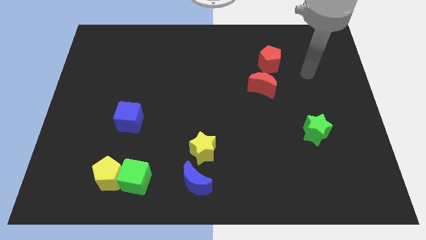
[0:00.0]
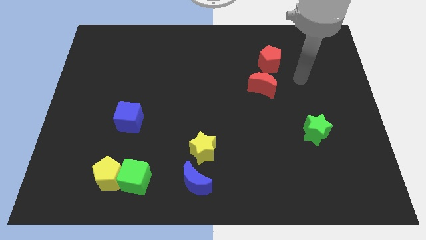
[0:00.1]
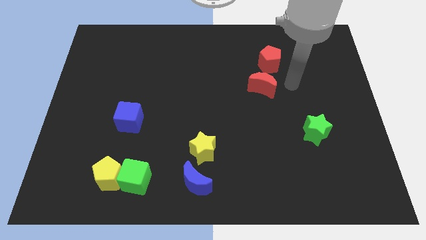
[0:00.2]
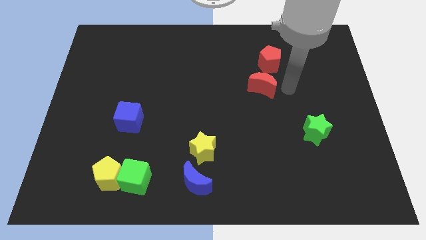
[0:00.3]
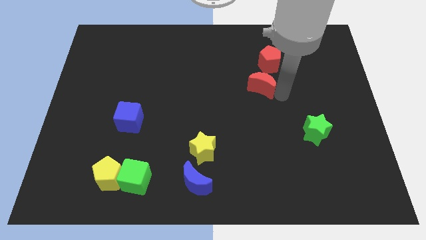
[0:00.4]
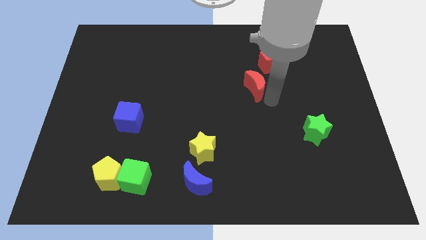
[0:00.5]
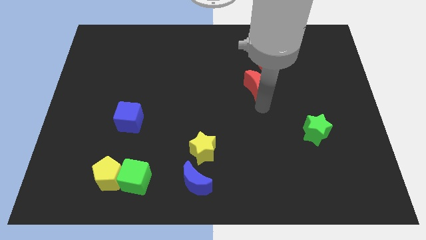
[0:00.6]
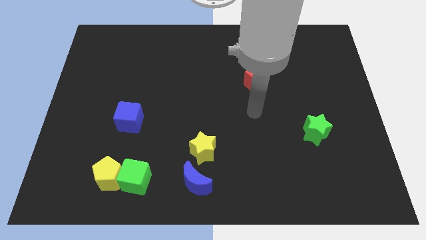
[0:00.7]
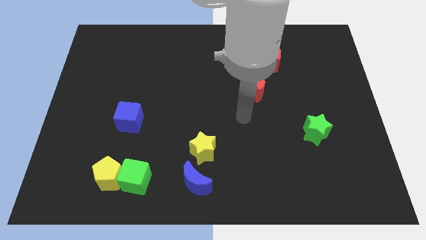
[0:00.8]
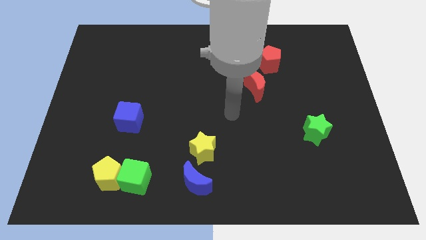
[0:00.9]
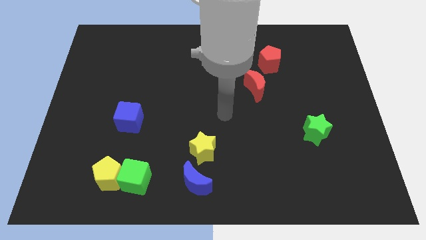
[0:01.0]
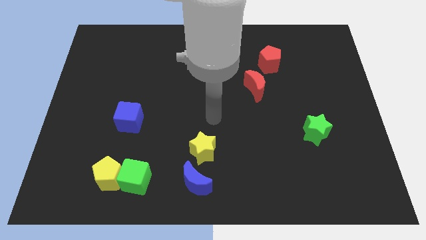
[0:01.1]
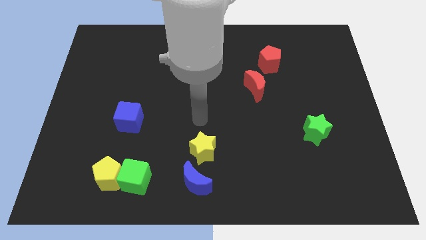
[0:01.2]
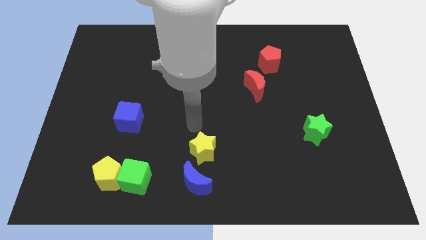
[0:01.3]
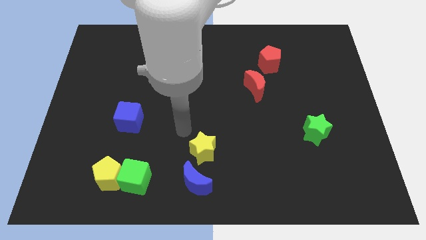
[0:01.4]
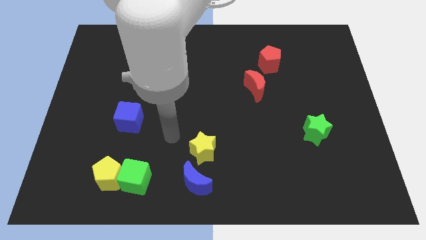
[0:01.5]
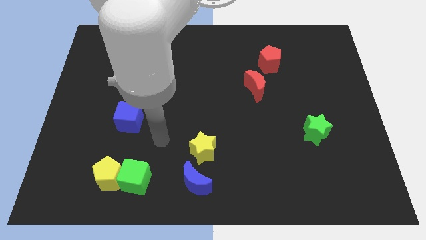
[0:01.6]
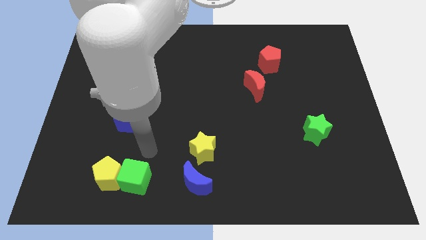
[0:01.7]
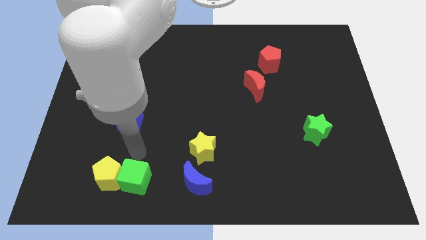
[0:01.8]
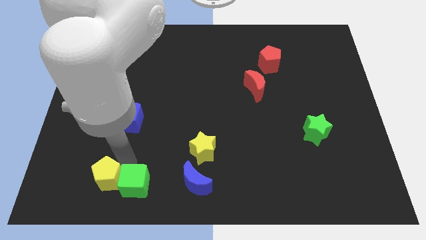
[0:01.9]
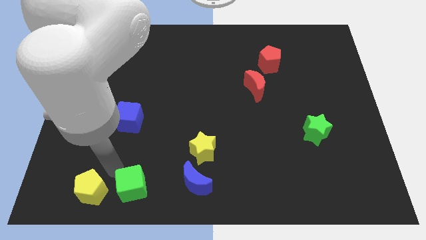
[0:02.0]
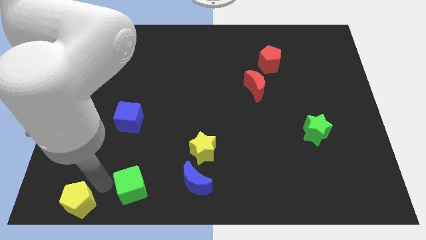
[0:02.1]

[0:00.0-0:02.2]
separate the green cube from the yellow pentagon

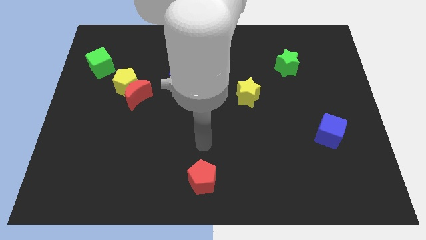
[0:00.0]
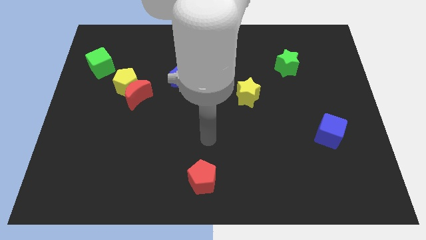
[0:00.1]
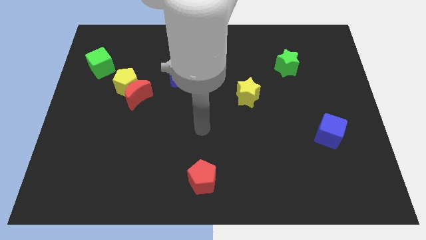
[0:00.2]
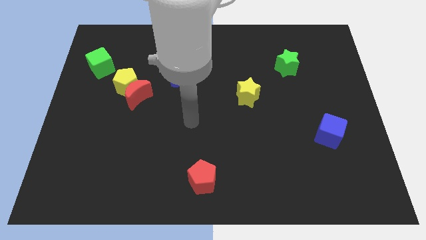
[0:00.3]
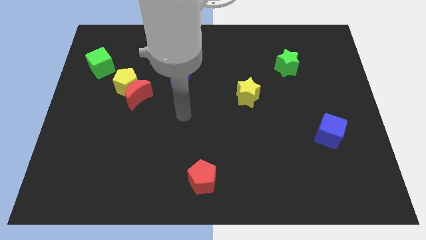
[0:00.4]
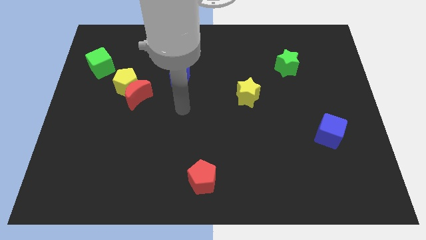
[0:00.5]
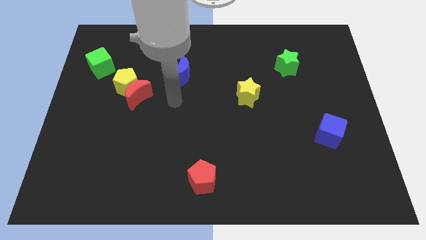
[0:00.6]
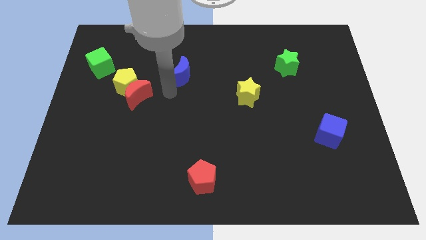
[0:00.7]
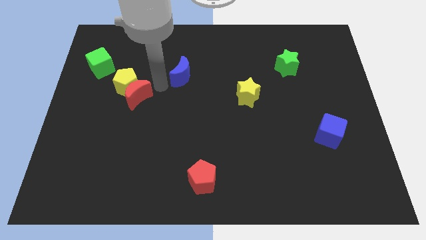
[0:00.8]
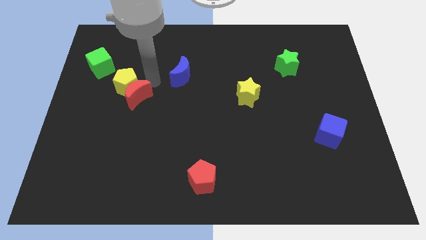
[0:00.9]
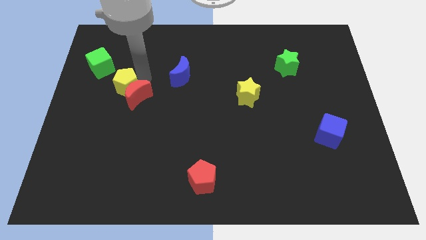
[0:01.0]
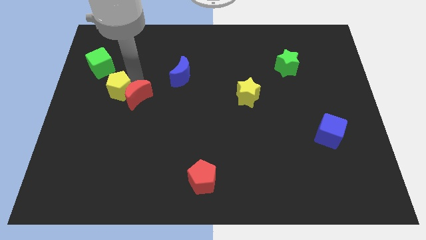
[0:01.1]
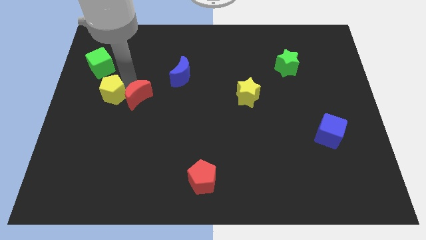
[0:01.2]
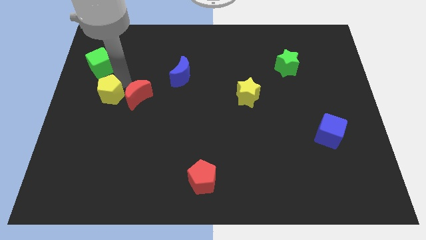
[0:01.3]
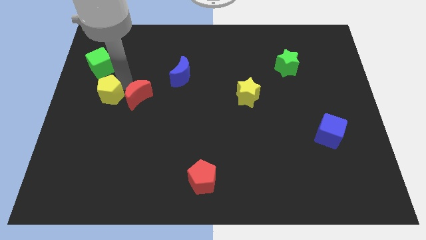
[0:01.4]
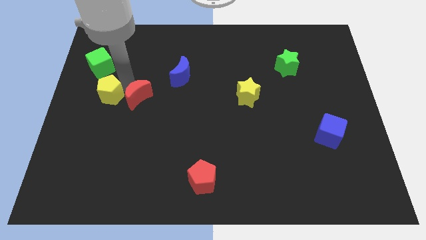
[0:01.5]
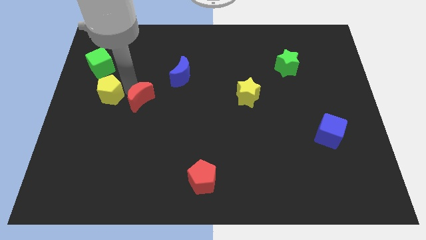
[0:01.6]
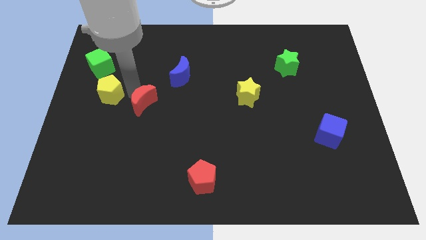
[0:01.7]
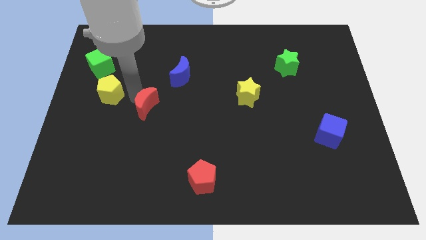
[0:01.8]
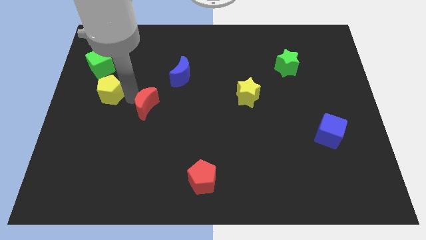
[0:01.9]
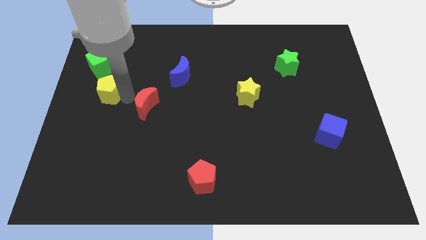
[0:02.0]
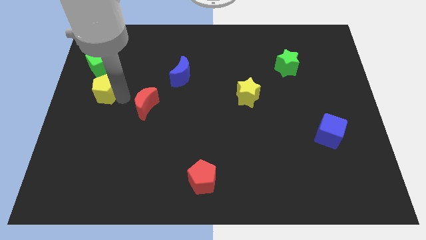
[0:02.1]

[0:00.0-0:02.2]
pull the red moon apart from the yellow pentagon

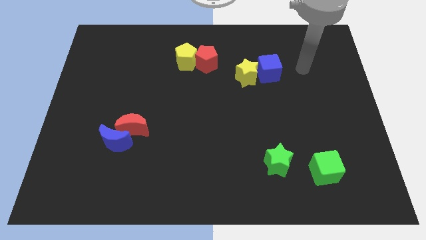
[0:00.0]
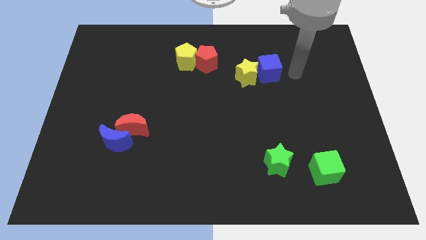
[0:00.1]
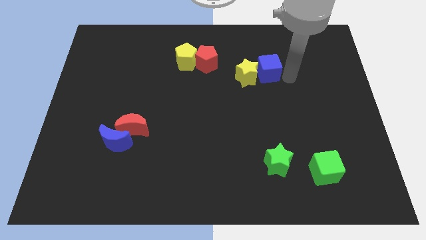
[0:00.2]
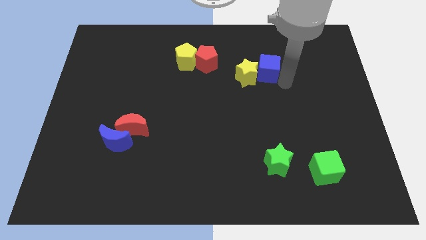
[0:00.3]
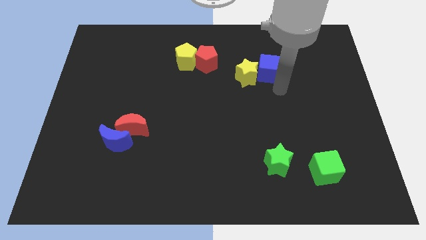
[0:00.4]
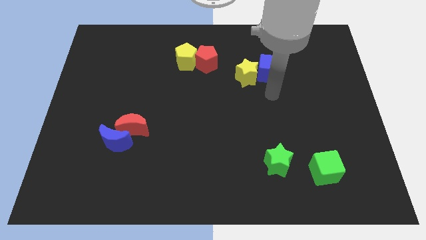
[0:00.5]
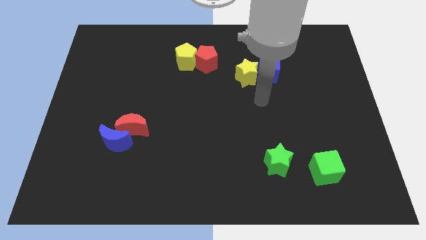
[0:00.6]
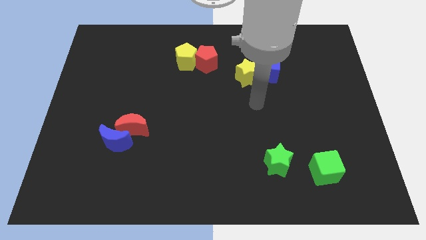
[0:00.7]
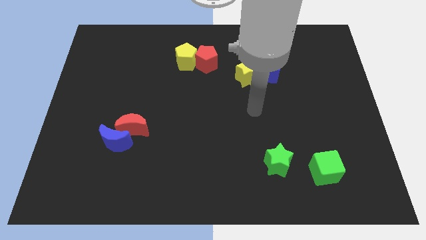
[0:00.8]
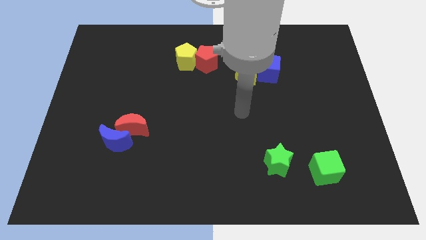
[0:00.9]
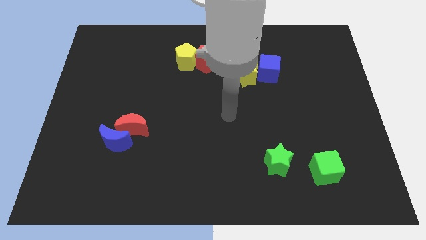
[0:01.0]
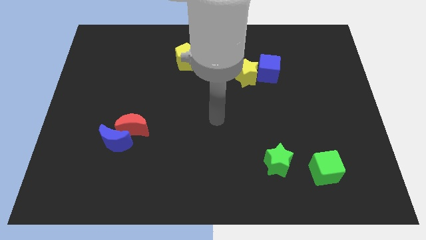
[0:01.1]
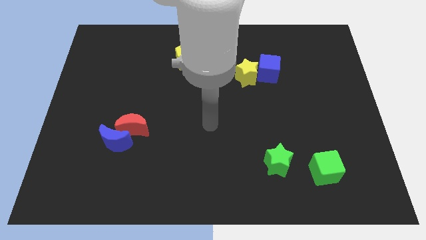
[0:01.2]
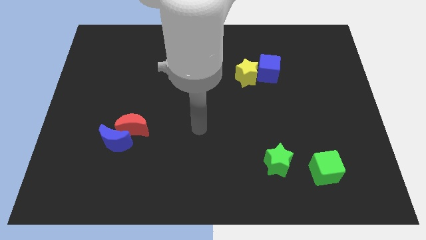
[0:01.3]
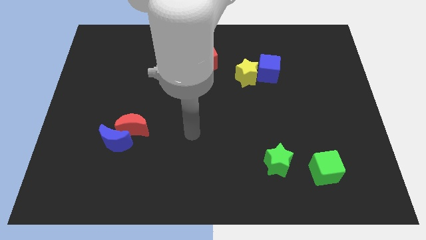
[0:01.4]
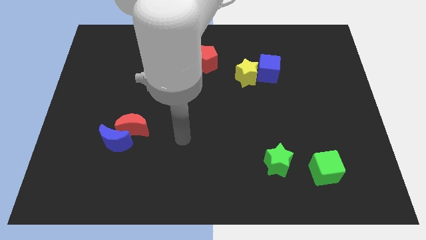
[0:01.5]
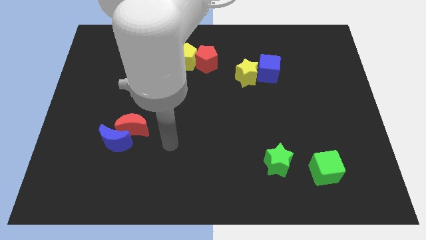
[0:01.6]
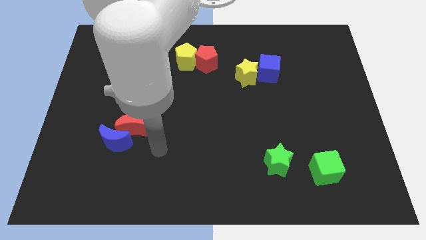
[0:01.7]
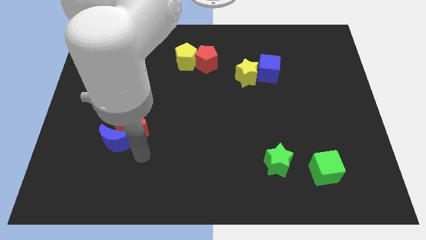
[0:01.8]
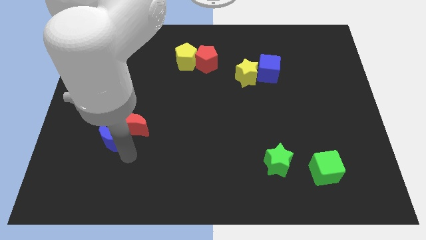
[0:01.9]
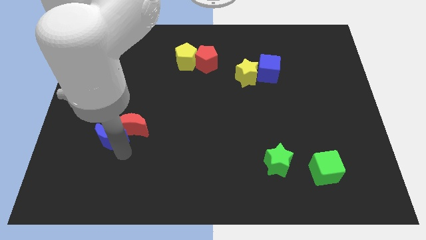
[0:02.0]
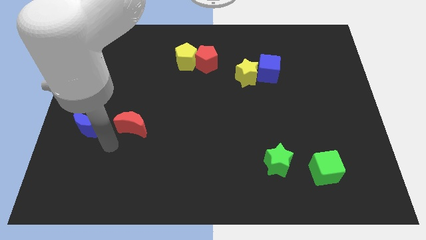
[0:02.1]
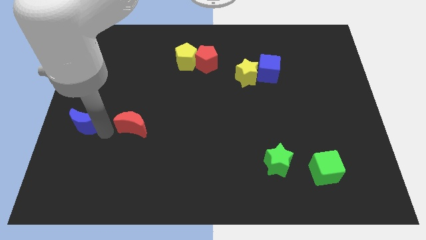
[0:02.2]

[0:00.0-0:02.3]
pull the red moon apart from the blue moon

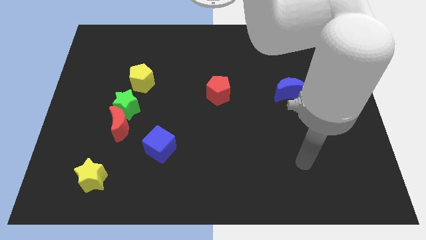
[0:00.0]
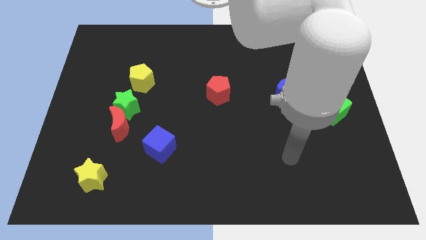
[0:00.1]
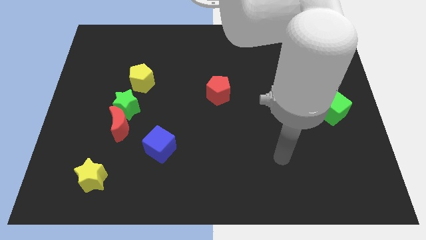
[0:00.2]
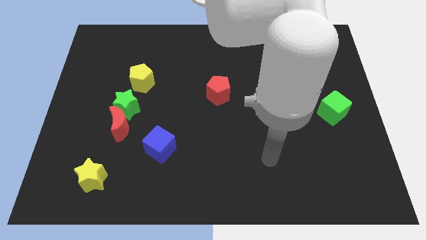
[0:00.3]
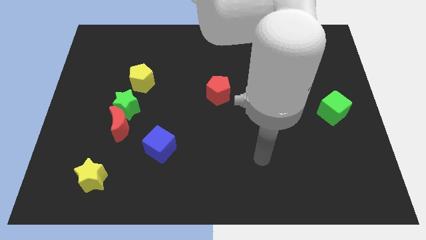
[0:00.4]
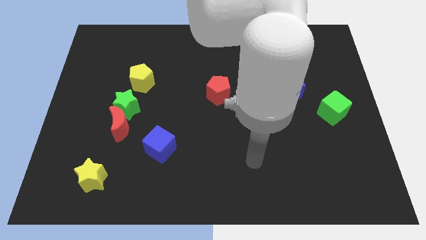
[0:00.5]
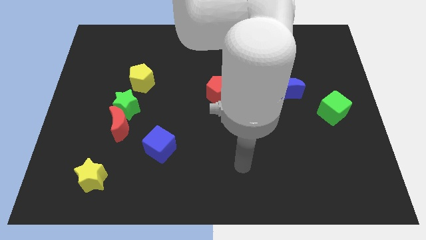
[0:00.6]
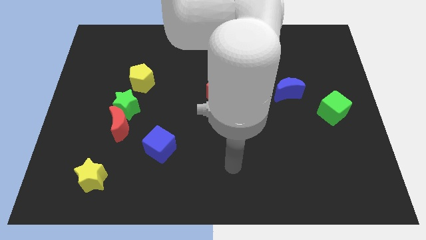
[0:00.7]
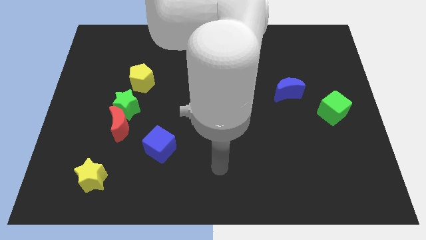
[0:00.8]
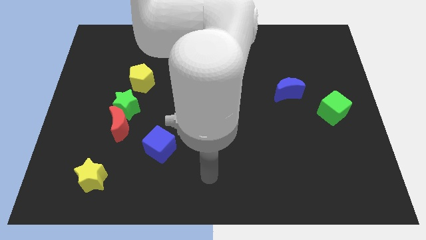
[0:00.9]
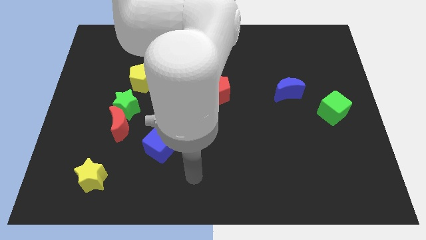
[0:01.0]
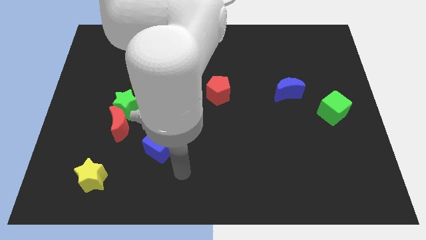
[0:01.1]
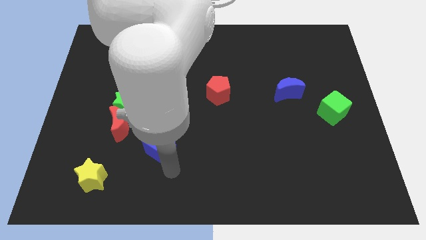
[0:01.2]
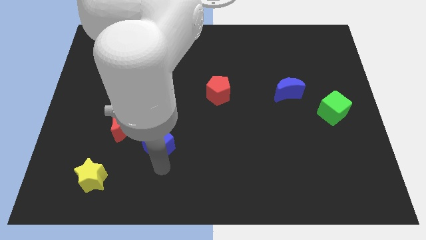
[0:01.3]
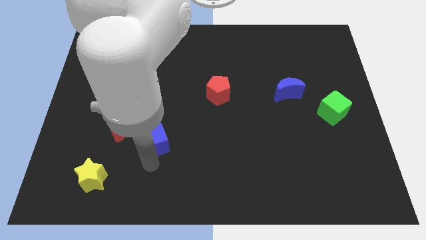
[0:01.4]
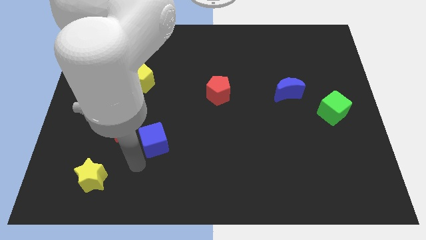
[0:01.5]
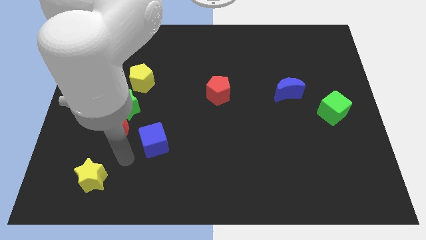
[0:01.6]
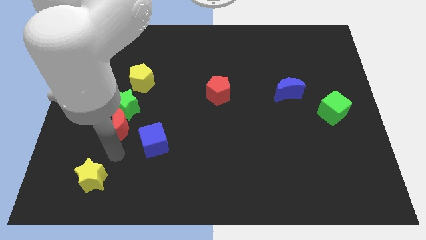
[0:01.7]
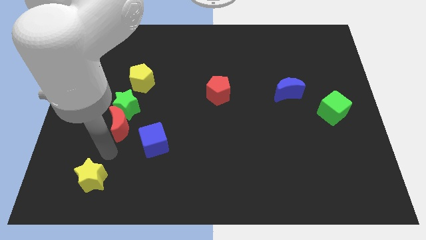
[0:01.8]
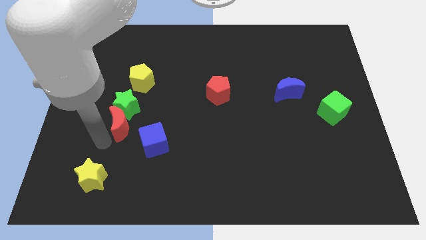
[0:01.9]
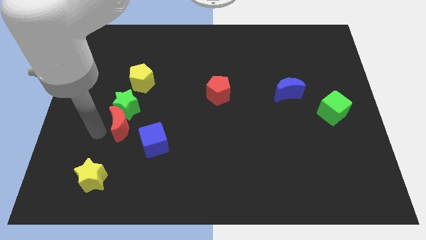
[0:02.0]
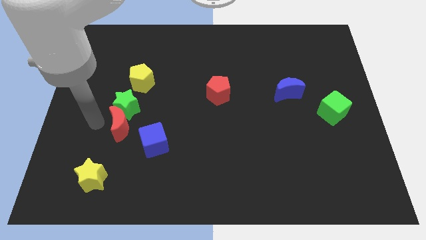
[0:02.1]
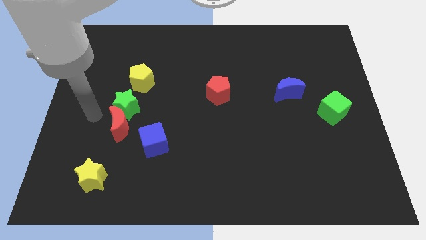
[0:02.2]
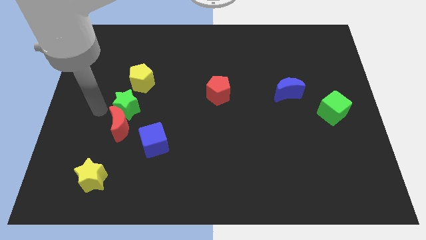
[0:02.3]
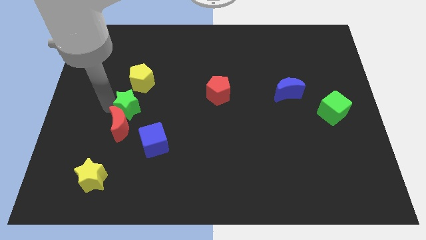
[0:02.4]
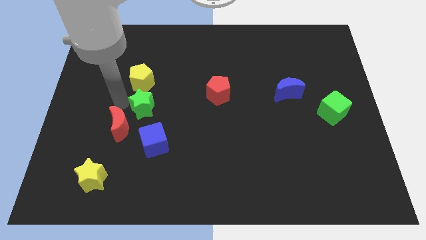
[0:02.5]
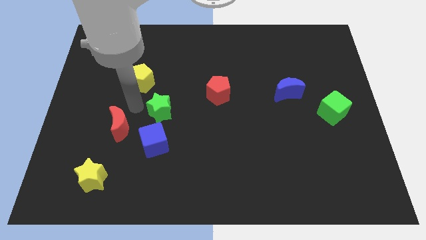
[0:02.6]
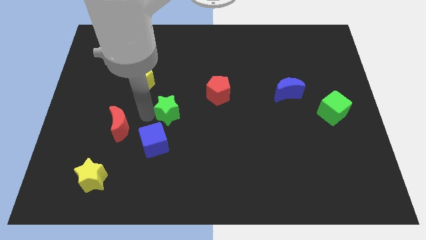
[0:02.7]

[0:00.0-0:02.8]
separate the red moon from the green star
